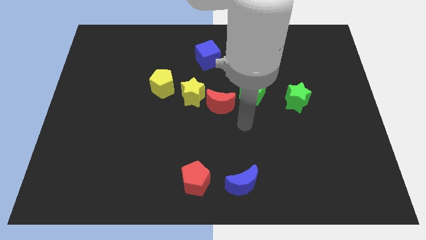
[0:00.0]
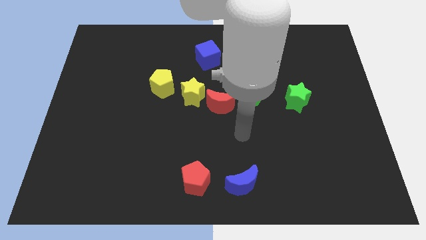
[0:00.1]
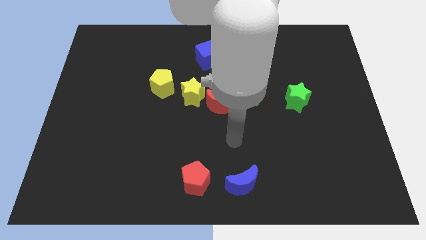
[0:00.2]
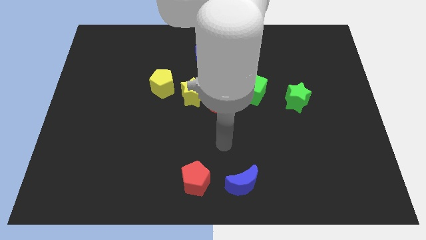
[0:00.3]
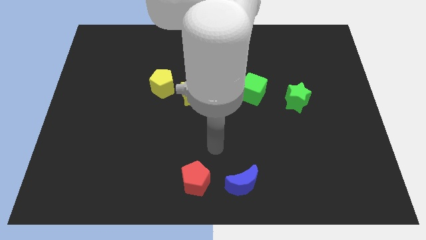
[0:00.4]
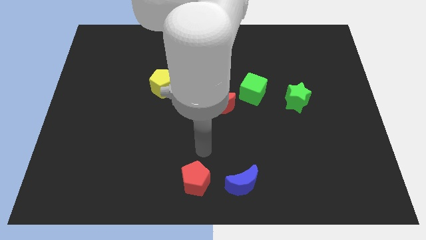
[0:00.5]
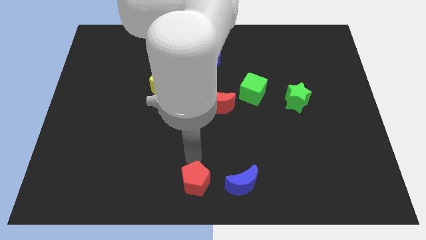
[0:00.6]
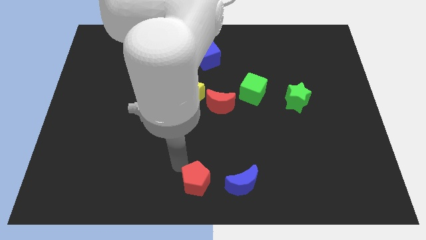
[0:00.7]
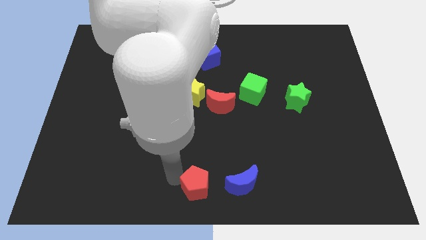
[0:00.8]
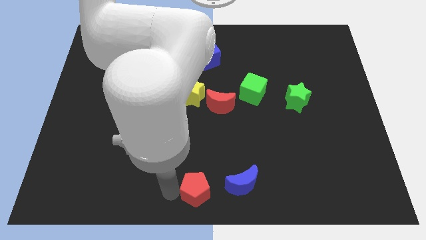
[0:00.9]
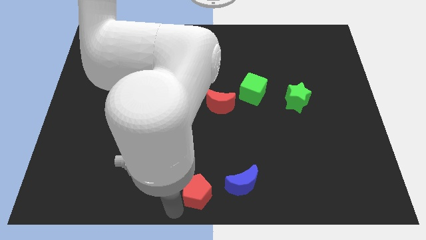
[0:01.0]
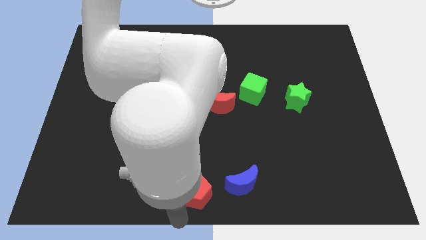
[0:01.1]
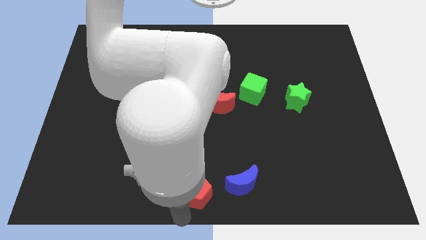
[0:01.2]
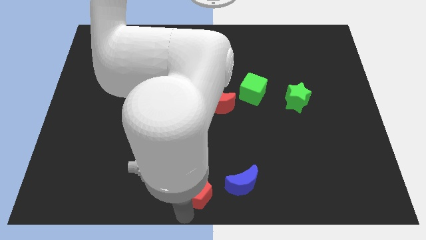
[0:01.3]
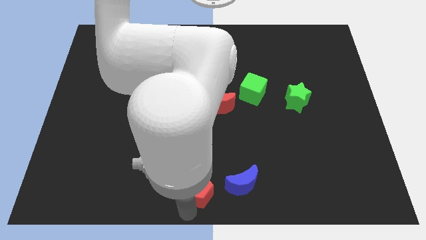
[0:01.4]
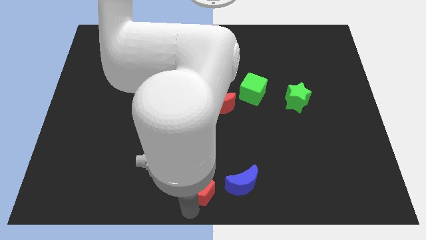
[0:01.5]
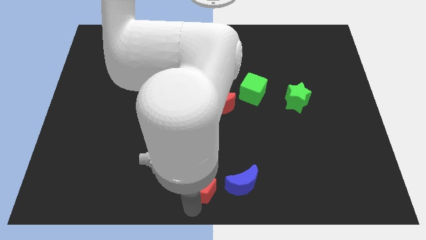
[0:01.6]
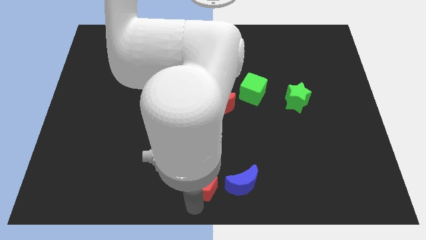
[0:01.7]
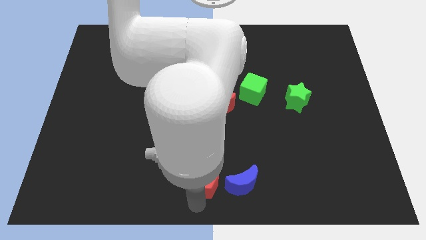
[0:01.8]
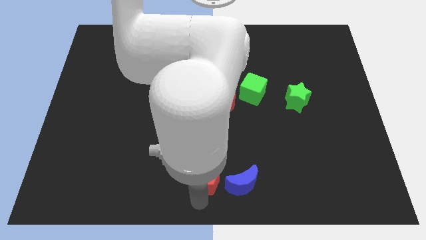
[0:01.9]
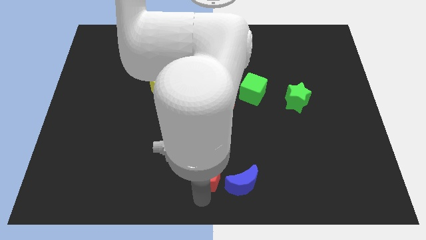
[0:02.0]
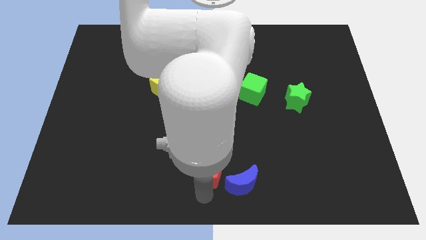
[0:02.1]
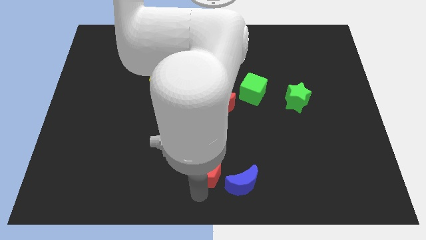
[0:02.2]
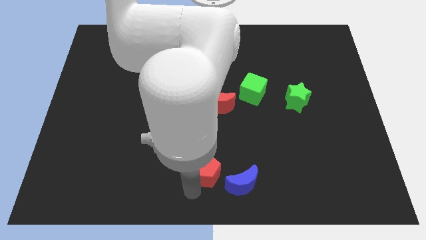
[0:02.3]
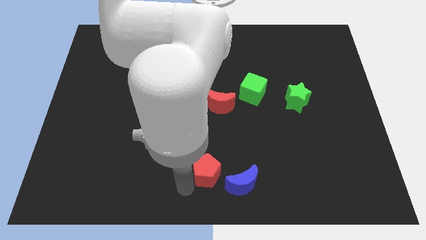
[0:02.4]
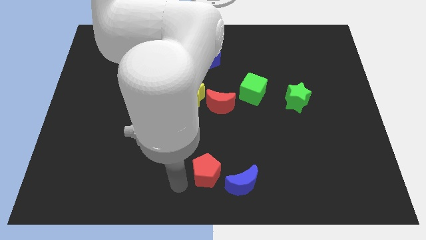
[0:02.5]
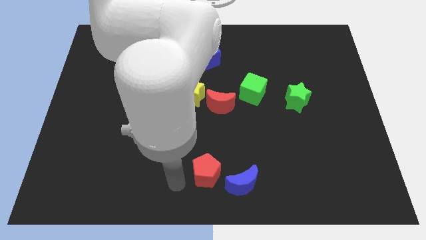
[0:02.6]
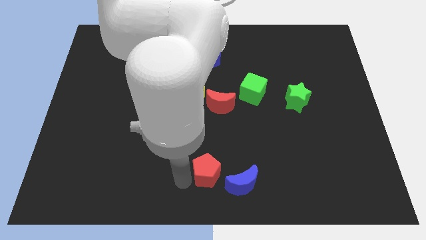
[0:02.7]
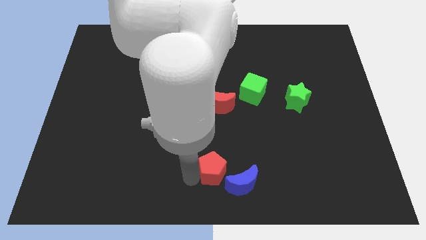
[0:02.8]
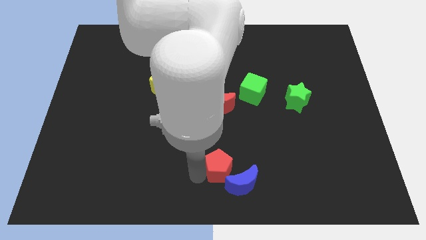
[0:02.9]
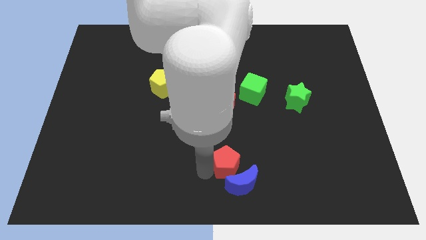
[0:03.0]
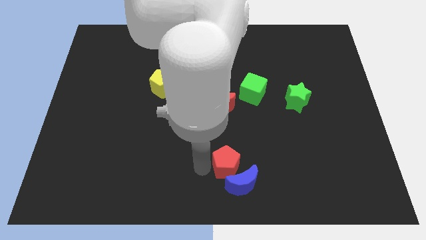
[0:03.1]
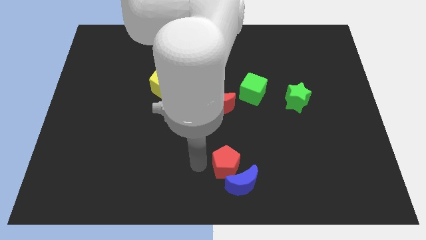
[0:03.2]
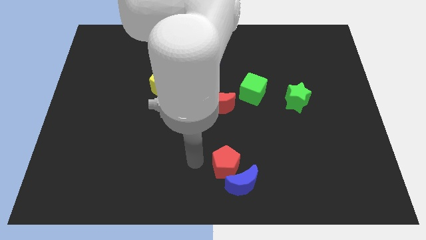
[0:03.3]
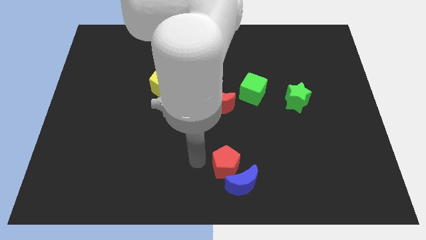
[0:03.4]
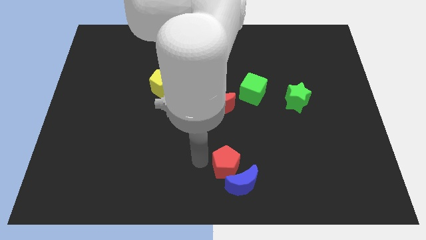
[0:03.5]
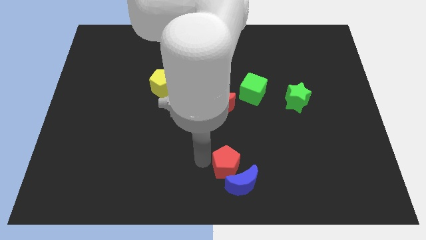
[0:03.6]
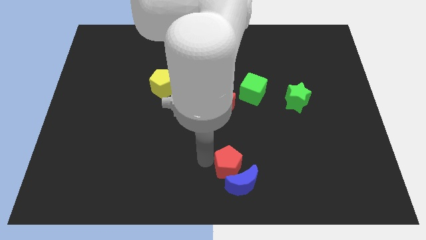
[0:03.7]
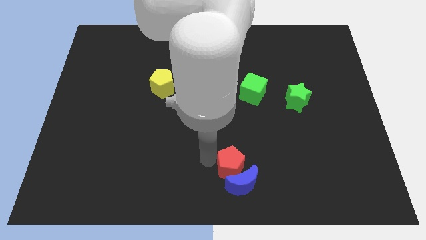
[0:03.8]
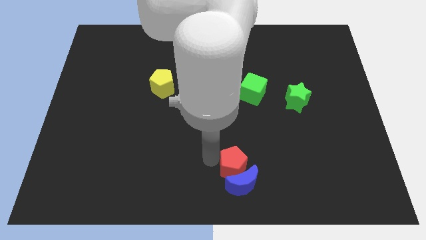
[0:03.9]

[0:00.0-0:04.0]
slide the red pentagon a little right

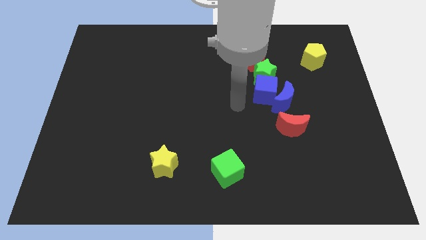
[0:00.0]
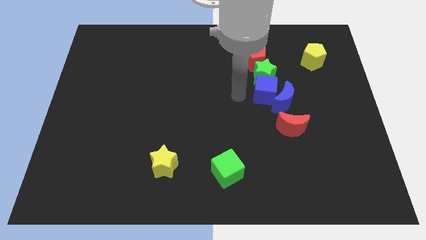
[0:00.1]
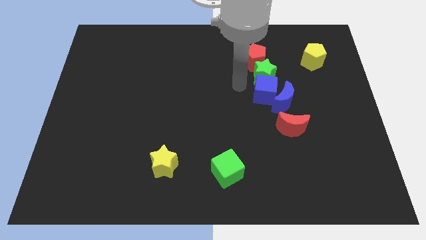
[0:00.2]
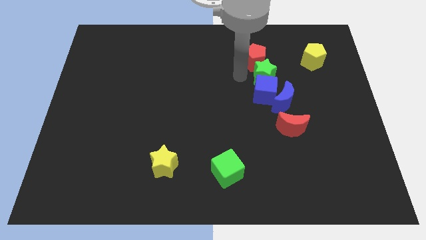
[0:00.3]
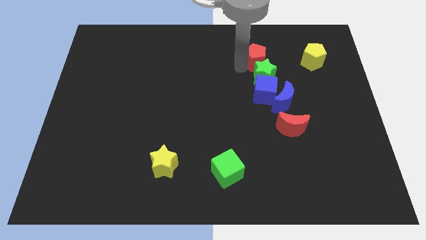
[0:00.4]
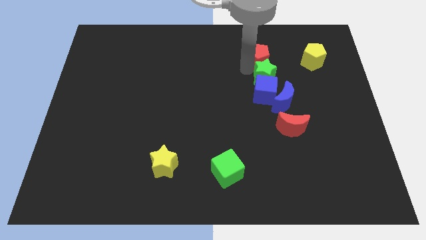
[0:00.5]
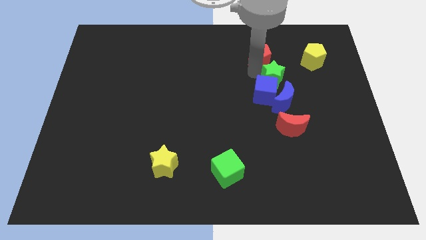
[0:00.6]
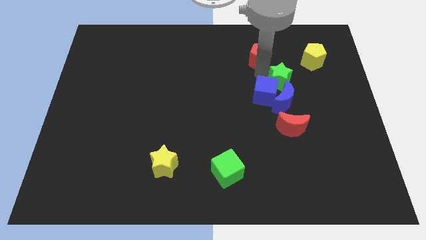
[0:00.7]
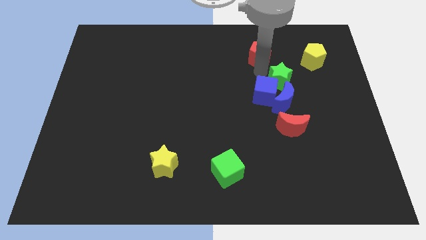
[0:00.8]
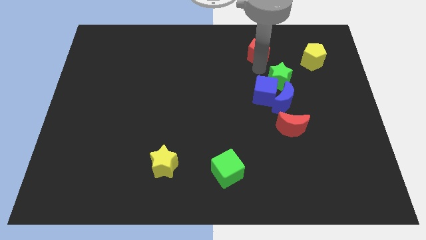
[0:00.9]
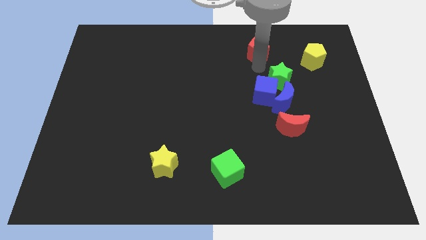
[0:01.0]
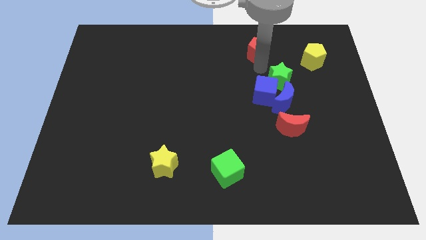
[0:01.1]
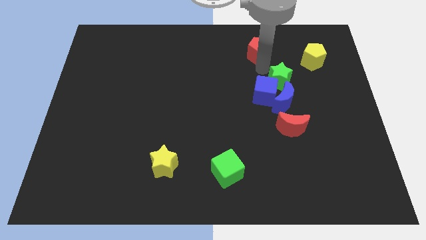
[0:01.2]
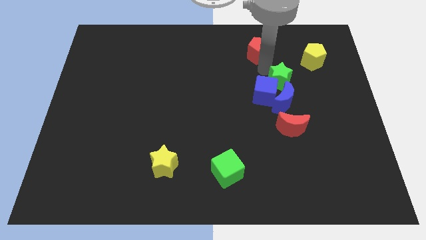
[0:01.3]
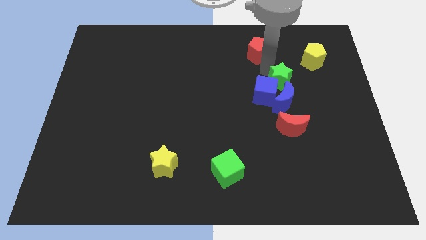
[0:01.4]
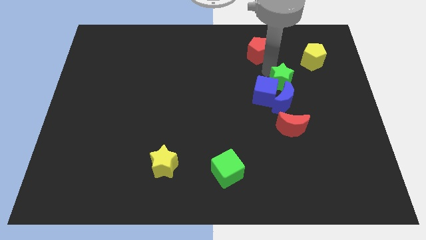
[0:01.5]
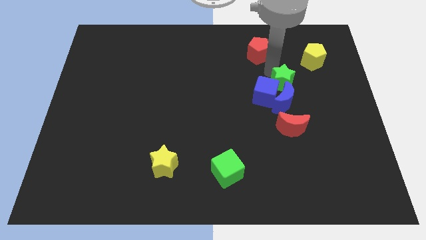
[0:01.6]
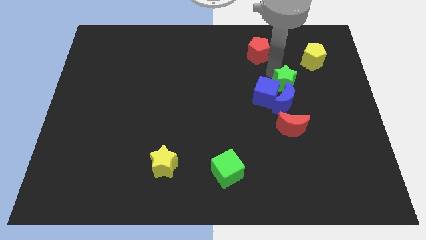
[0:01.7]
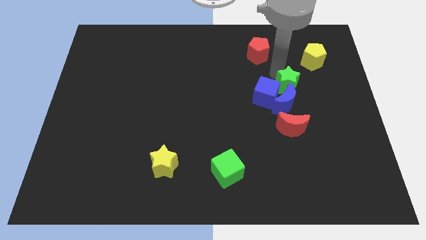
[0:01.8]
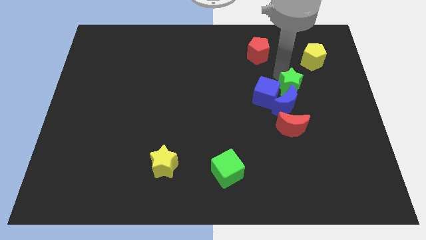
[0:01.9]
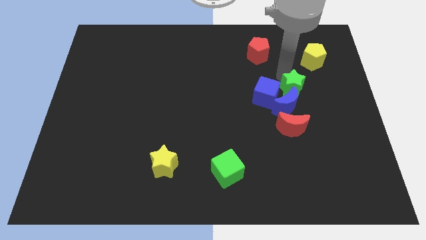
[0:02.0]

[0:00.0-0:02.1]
slide the green star diagonally down and to the right a little bit

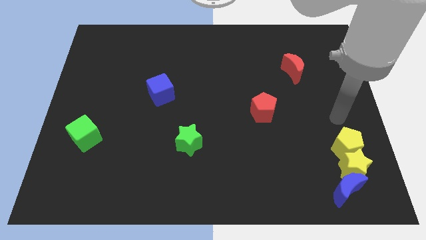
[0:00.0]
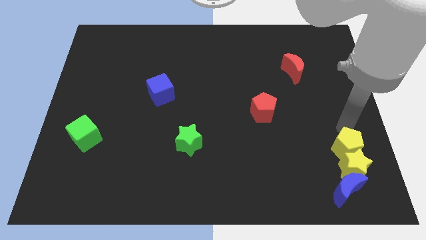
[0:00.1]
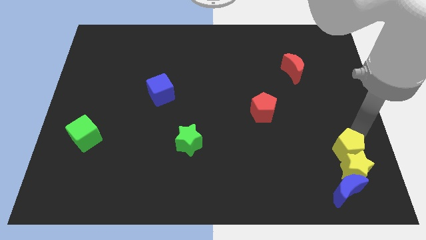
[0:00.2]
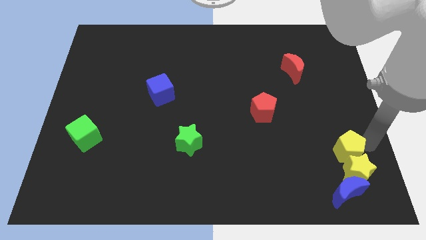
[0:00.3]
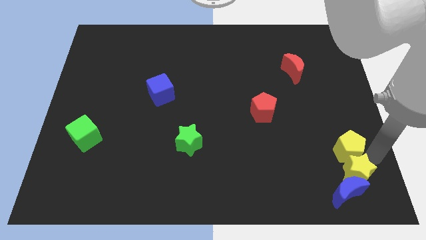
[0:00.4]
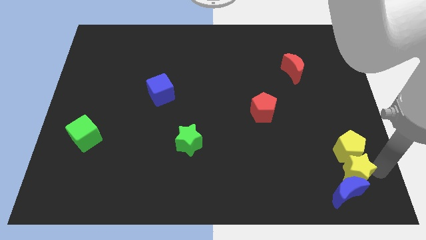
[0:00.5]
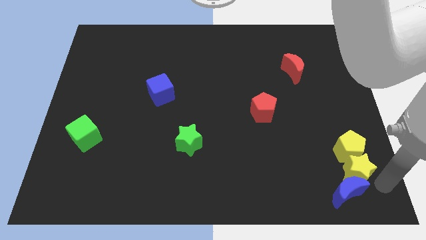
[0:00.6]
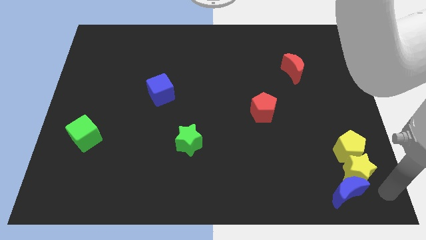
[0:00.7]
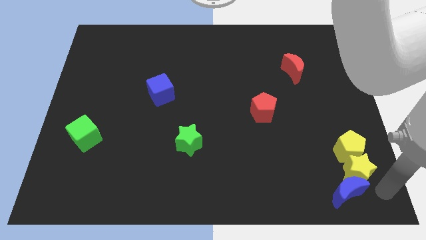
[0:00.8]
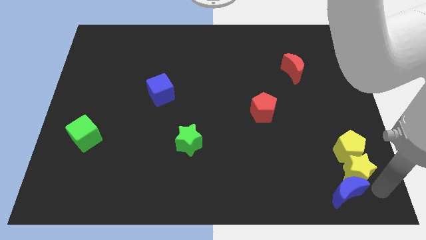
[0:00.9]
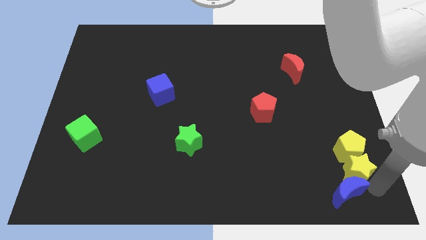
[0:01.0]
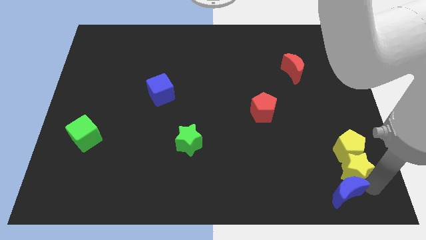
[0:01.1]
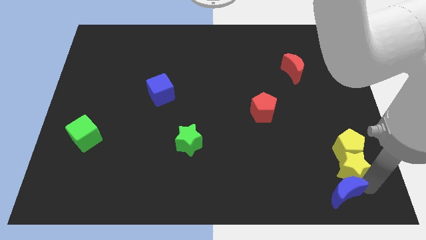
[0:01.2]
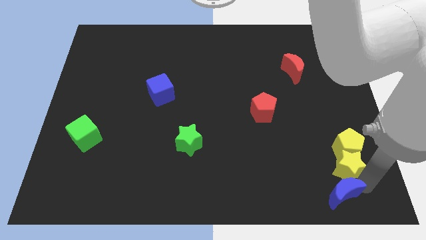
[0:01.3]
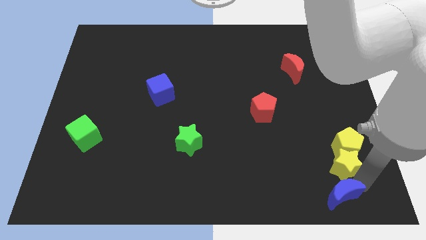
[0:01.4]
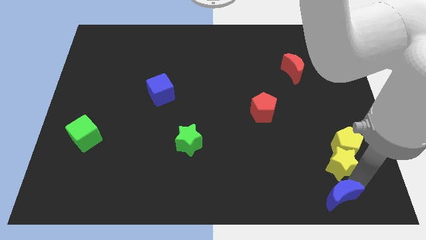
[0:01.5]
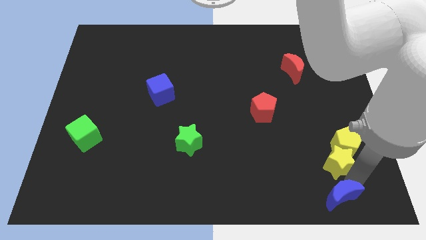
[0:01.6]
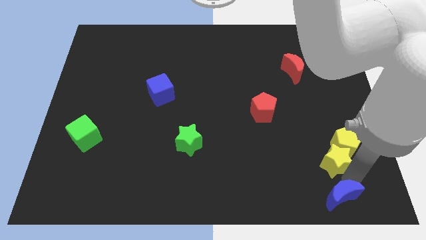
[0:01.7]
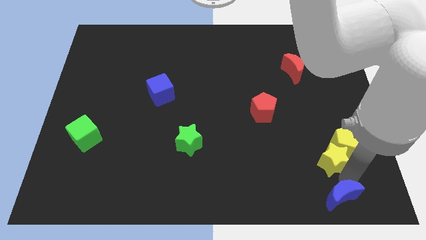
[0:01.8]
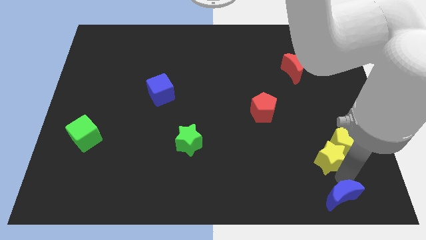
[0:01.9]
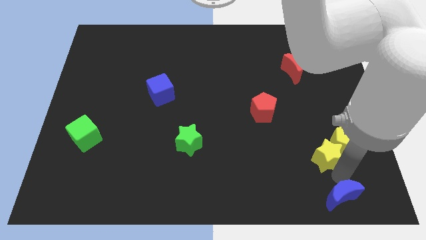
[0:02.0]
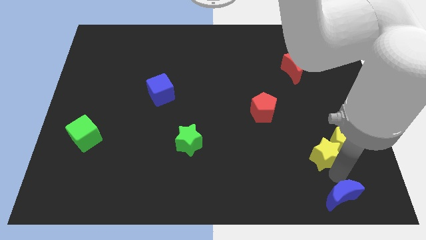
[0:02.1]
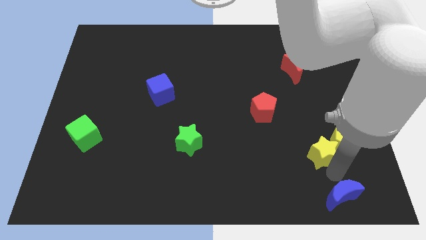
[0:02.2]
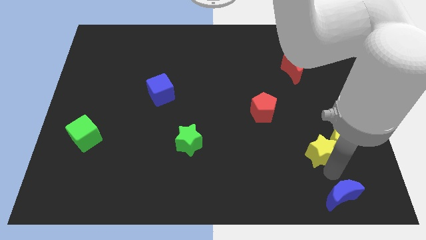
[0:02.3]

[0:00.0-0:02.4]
slide the yellow star diagonally upwards and left a little bit
